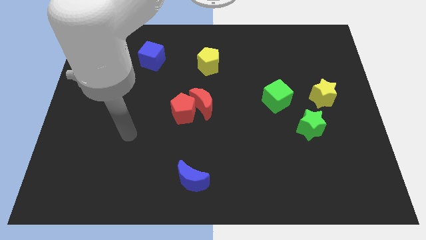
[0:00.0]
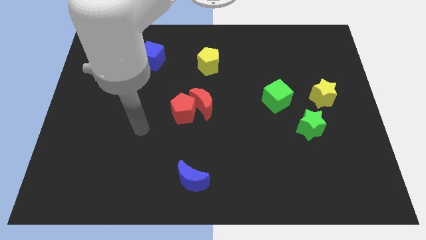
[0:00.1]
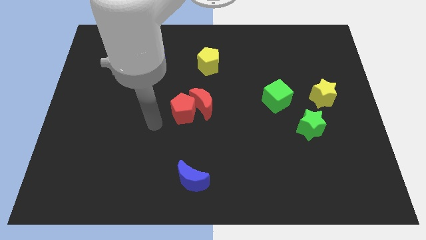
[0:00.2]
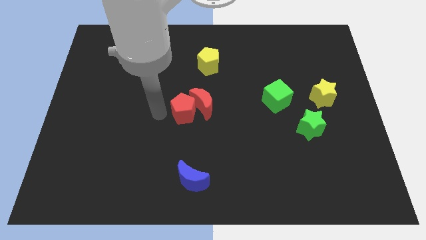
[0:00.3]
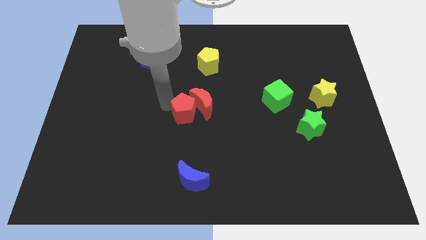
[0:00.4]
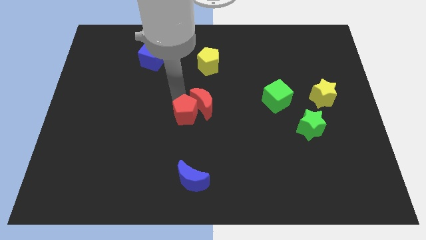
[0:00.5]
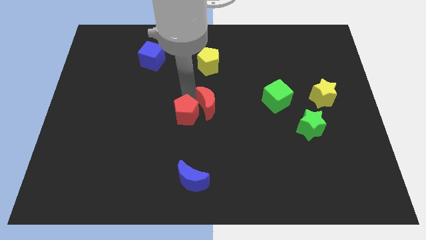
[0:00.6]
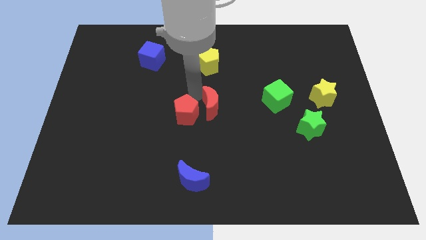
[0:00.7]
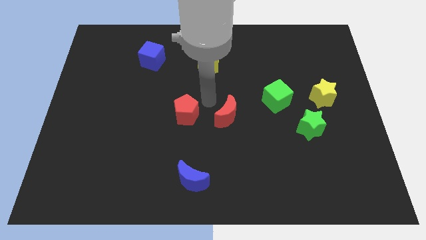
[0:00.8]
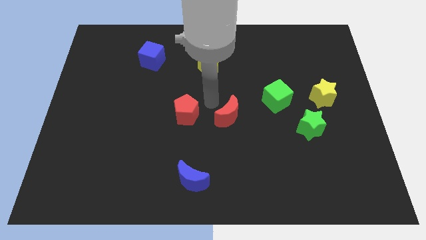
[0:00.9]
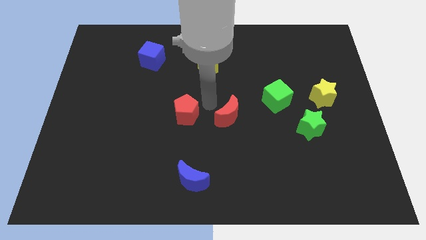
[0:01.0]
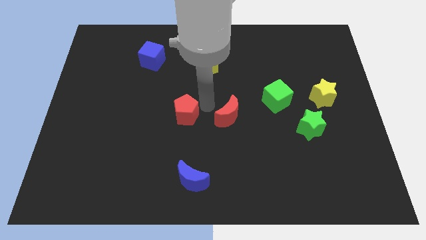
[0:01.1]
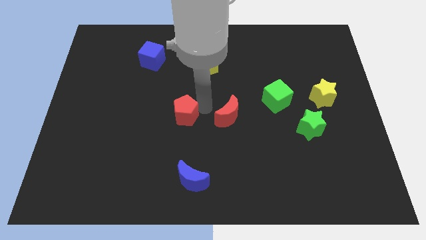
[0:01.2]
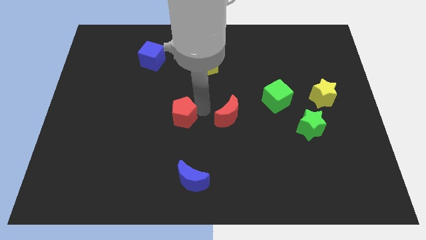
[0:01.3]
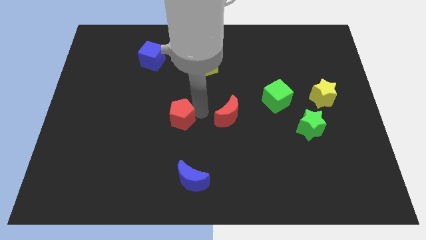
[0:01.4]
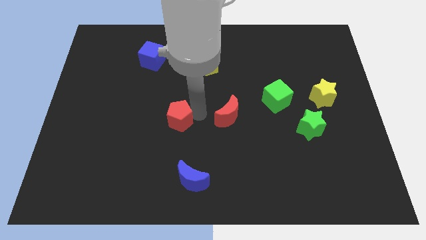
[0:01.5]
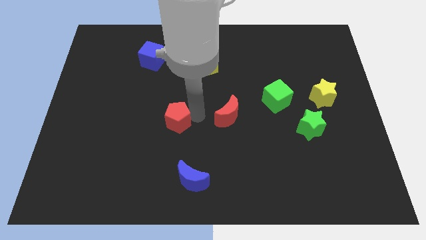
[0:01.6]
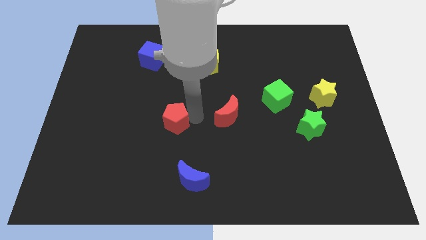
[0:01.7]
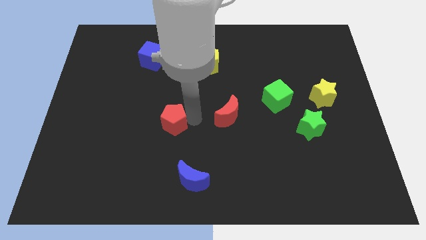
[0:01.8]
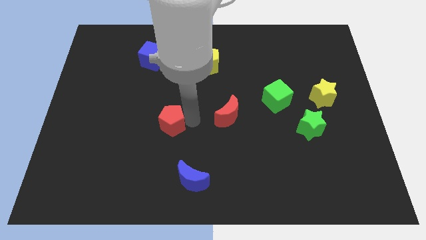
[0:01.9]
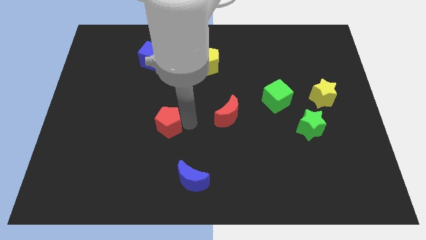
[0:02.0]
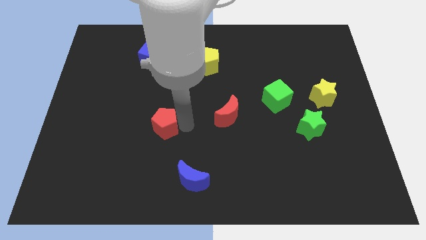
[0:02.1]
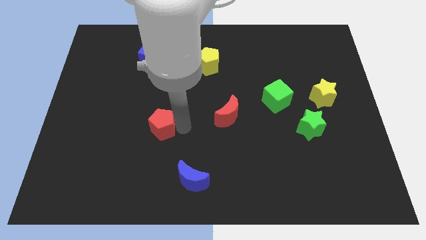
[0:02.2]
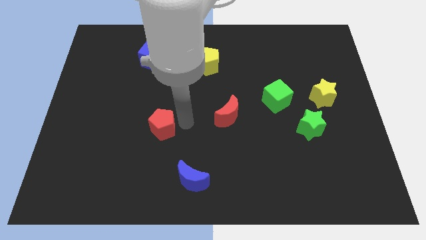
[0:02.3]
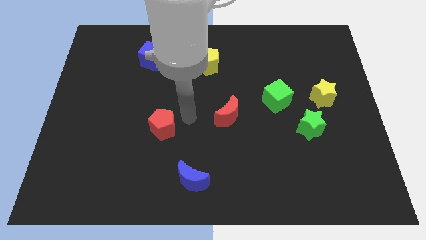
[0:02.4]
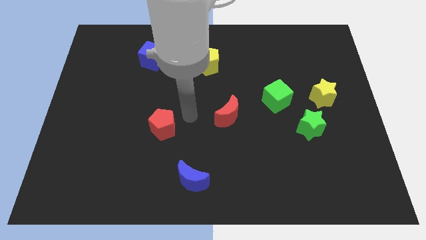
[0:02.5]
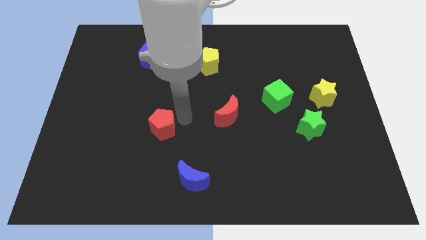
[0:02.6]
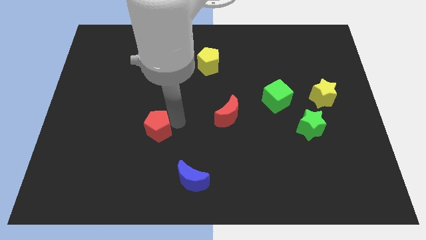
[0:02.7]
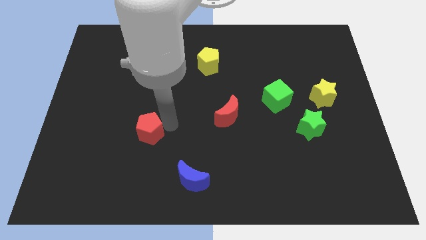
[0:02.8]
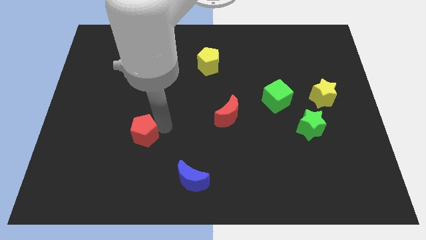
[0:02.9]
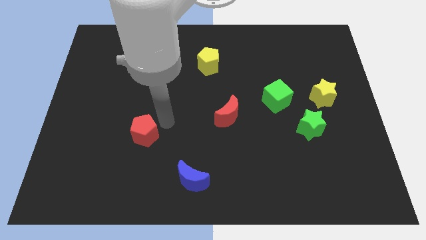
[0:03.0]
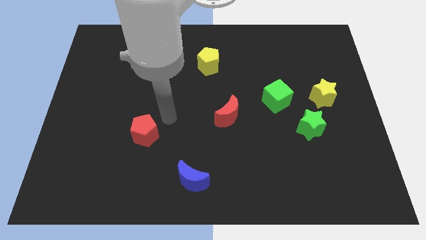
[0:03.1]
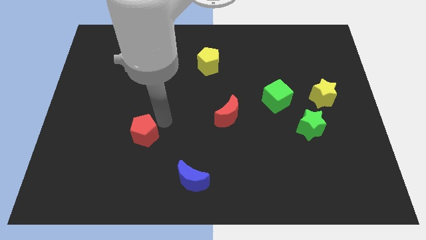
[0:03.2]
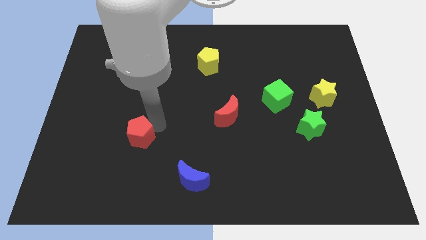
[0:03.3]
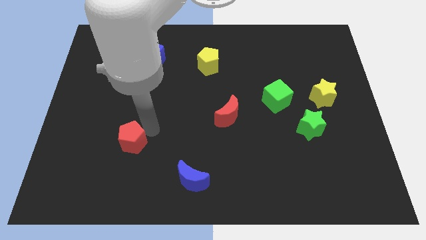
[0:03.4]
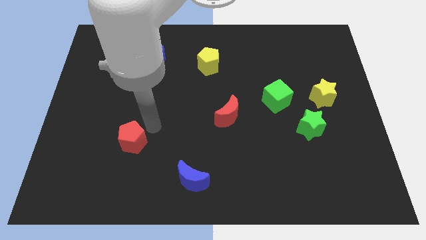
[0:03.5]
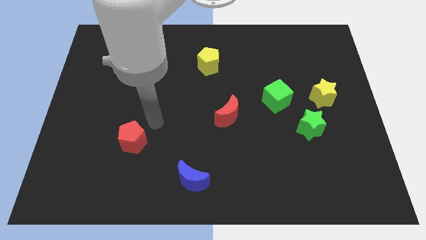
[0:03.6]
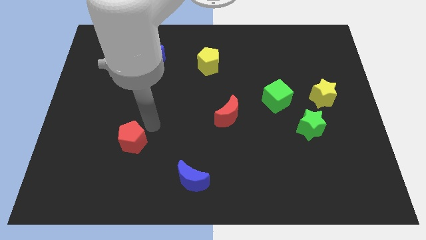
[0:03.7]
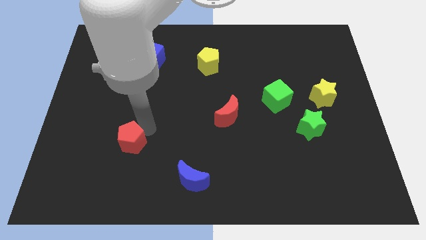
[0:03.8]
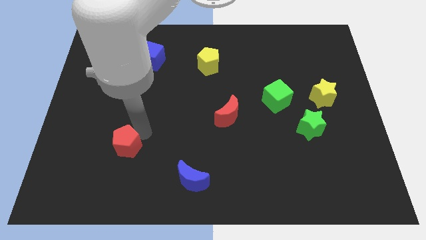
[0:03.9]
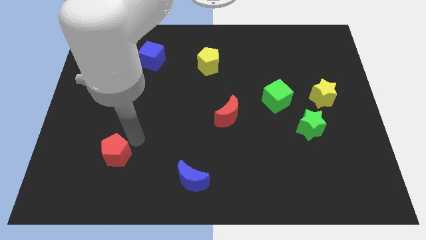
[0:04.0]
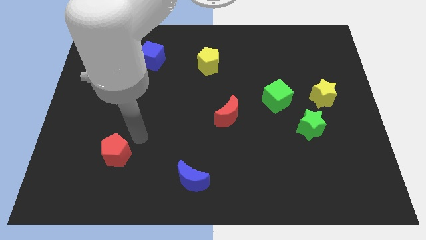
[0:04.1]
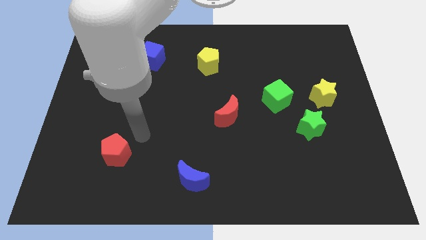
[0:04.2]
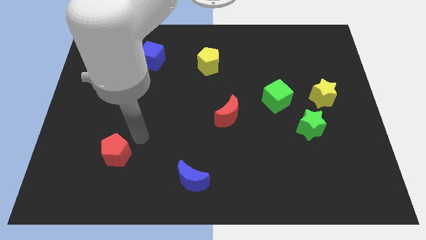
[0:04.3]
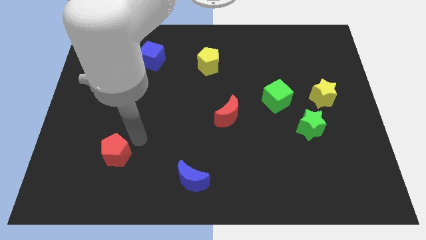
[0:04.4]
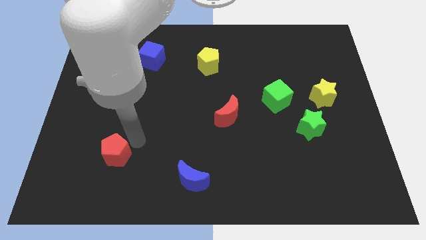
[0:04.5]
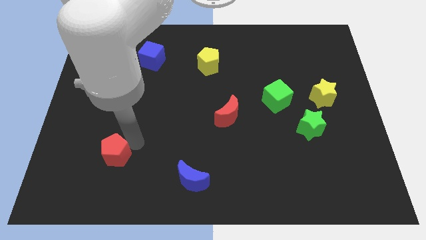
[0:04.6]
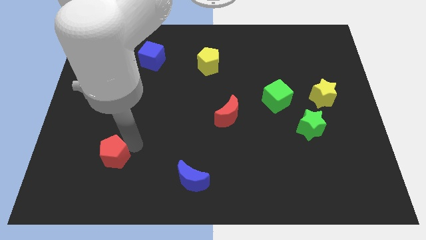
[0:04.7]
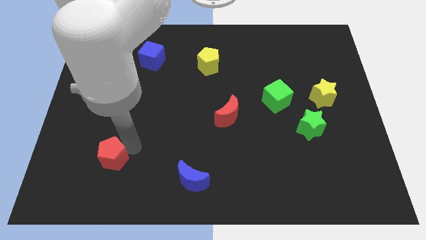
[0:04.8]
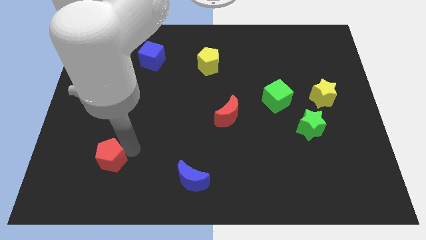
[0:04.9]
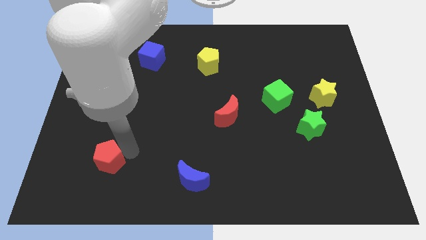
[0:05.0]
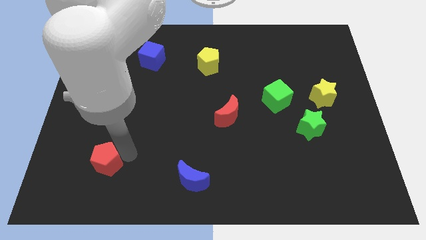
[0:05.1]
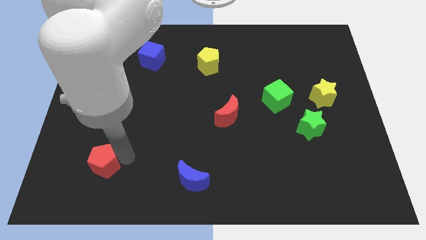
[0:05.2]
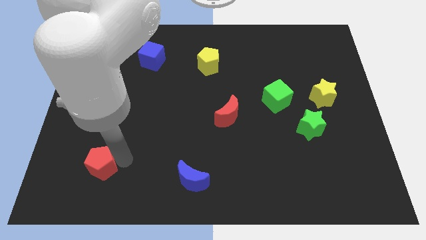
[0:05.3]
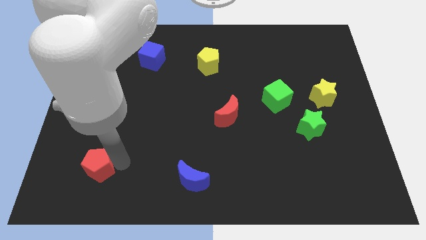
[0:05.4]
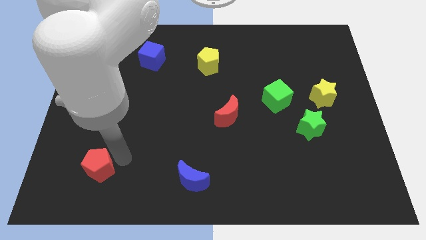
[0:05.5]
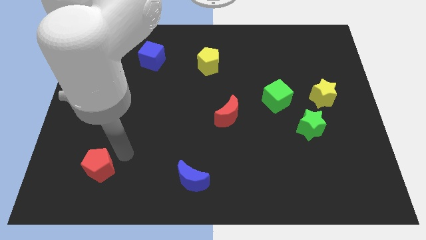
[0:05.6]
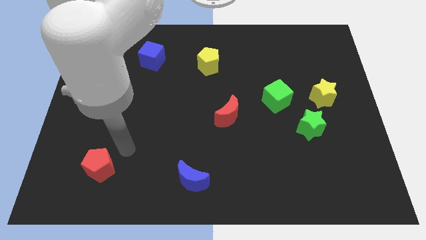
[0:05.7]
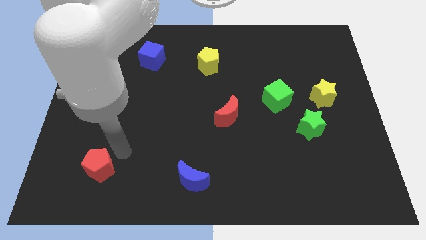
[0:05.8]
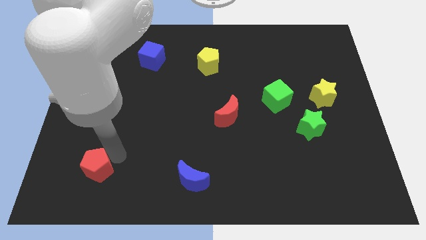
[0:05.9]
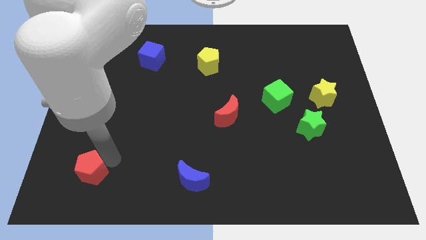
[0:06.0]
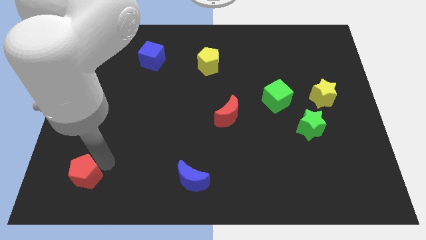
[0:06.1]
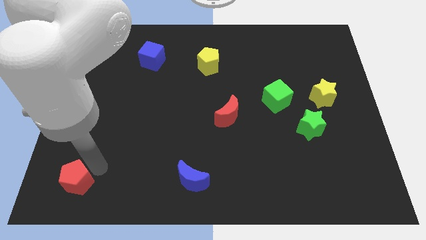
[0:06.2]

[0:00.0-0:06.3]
push the red pentagon to the bottom left
